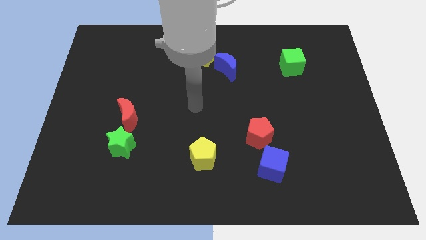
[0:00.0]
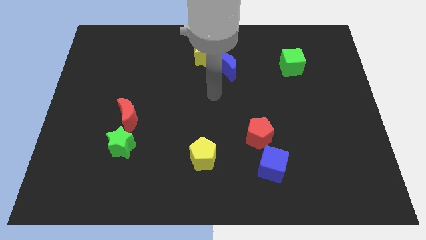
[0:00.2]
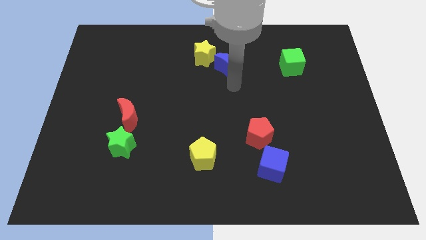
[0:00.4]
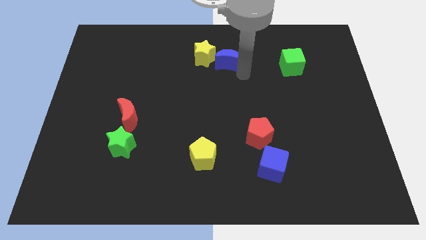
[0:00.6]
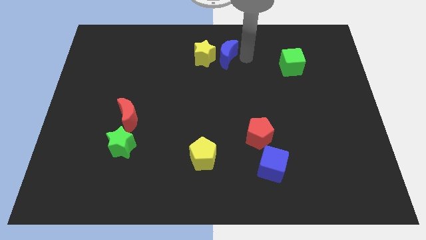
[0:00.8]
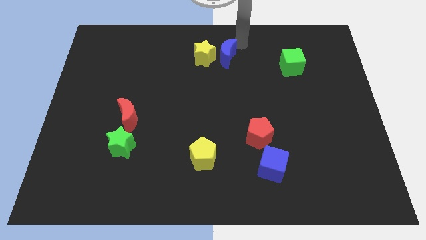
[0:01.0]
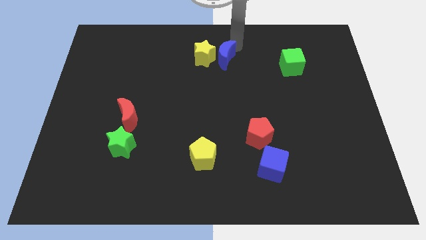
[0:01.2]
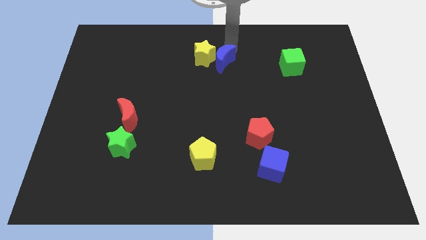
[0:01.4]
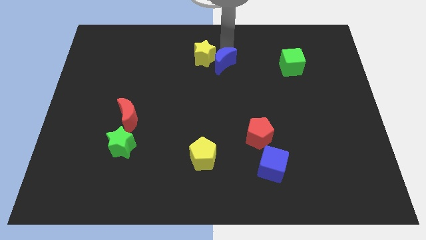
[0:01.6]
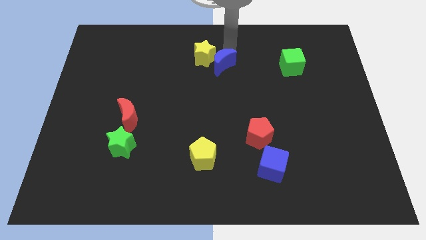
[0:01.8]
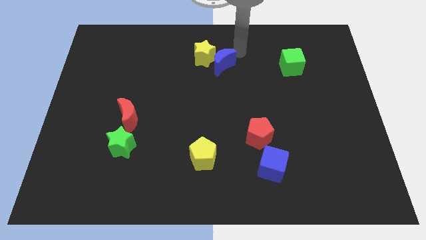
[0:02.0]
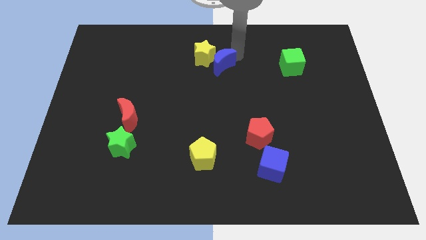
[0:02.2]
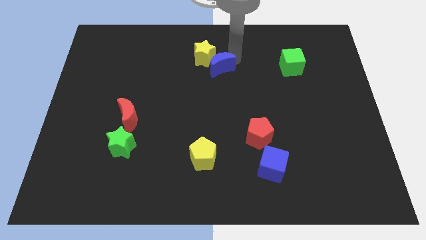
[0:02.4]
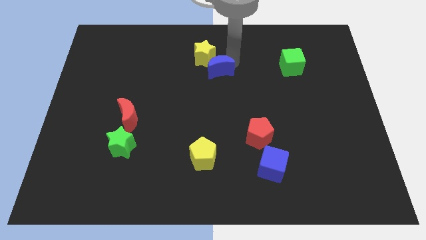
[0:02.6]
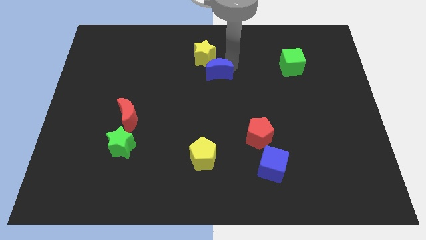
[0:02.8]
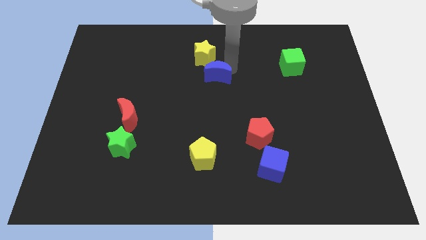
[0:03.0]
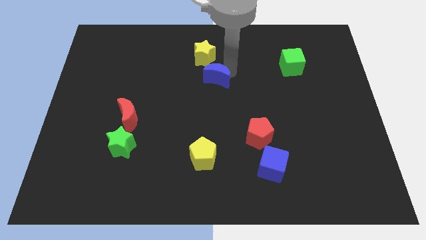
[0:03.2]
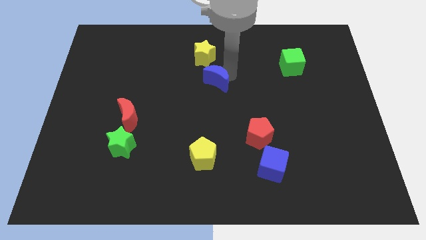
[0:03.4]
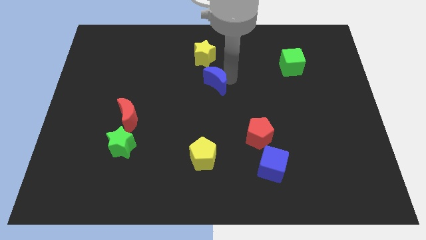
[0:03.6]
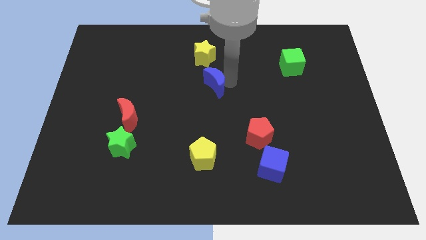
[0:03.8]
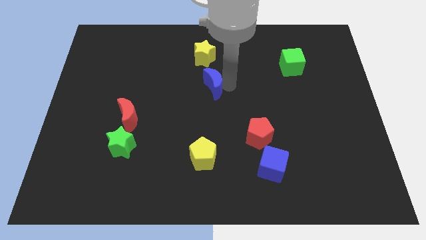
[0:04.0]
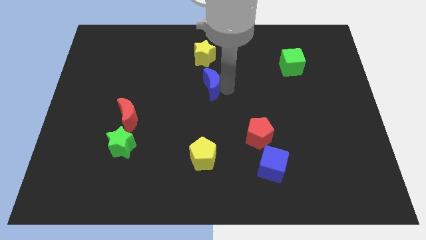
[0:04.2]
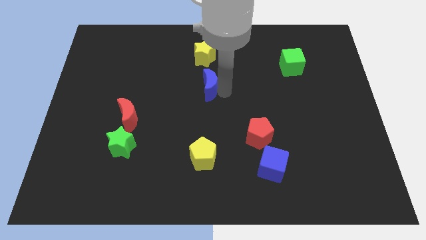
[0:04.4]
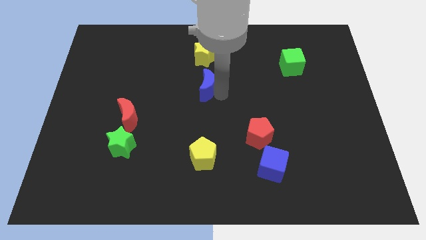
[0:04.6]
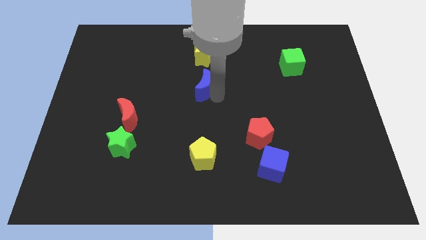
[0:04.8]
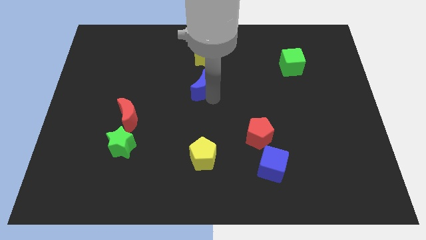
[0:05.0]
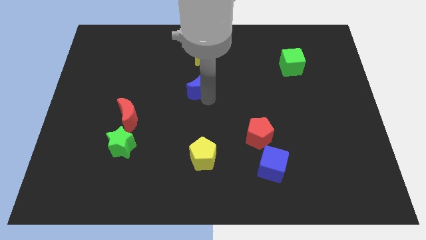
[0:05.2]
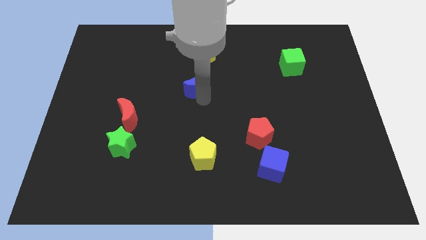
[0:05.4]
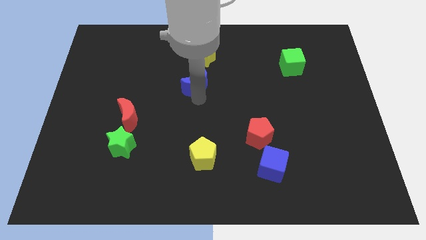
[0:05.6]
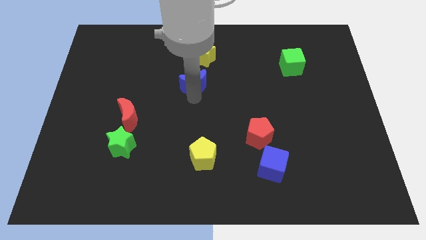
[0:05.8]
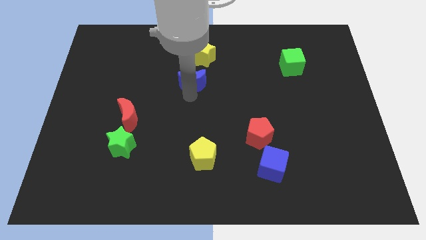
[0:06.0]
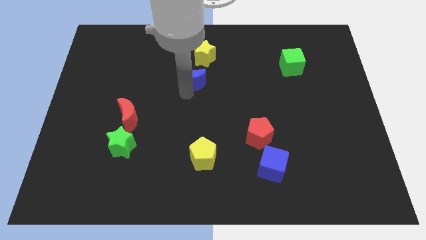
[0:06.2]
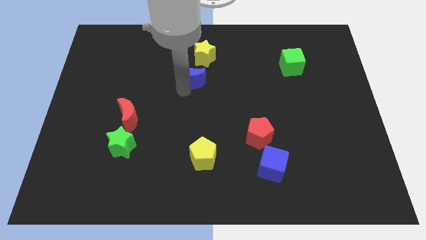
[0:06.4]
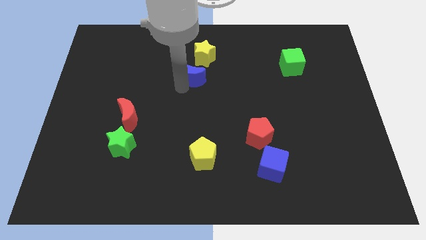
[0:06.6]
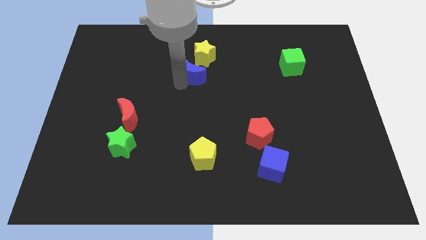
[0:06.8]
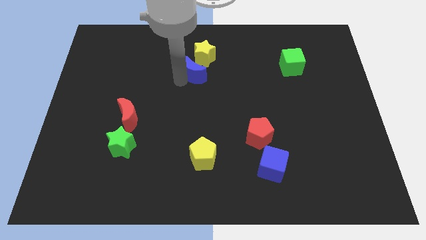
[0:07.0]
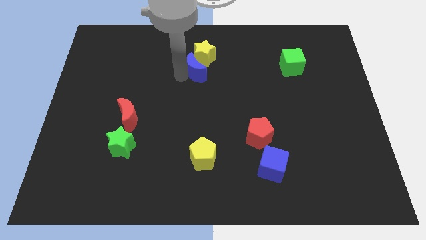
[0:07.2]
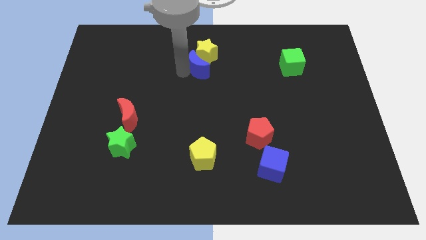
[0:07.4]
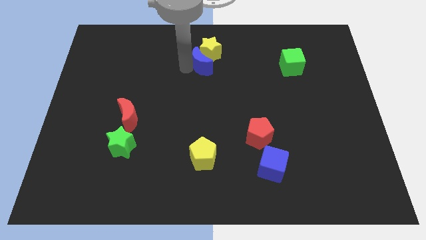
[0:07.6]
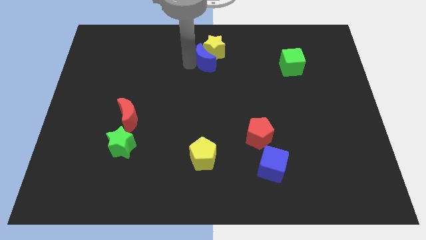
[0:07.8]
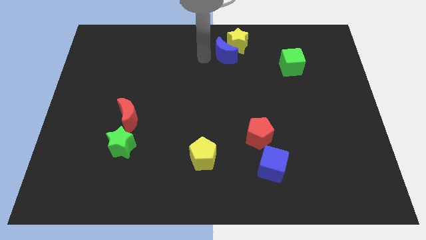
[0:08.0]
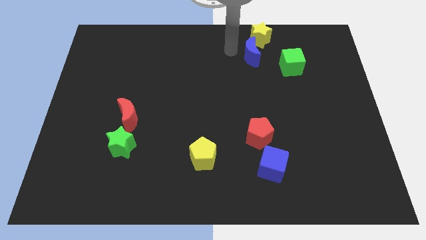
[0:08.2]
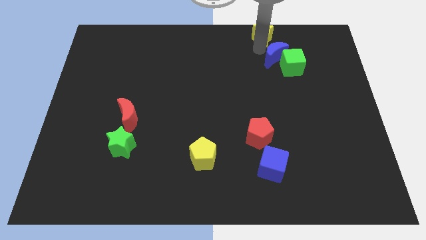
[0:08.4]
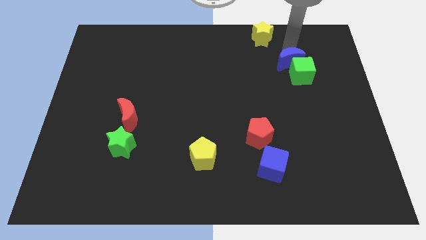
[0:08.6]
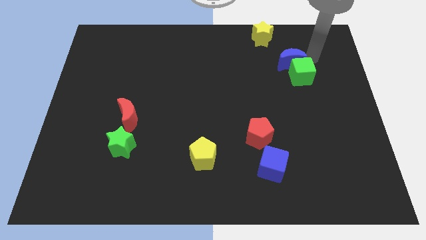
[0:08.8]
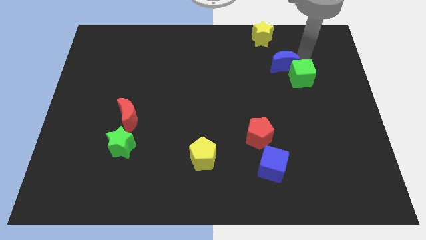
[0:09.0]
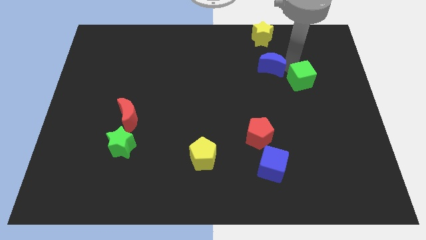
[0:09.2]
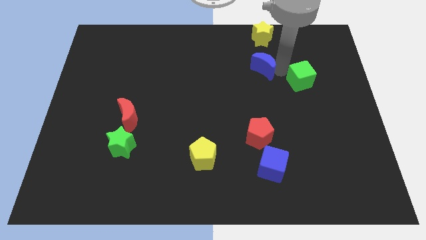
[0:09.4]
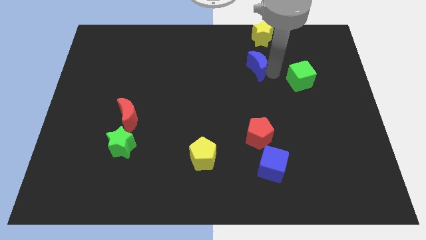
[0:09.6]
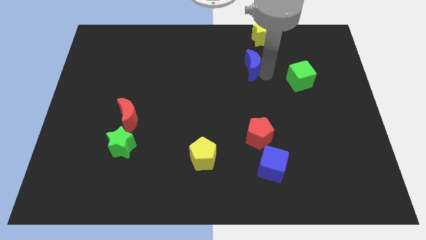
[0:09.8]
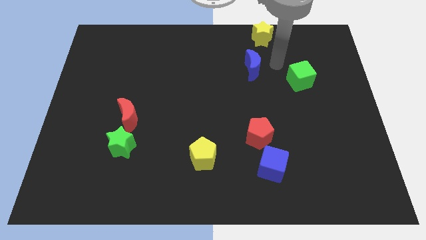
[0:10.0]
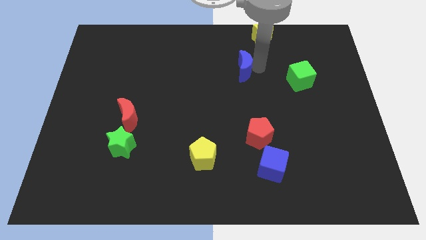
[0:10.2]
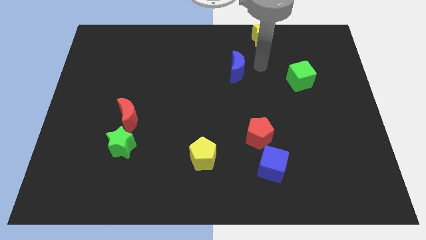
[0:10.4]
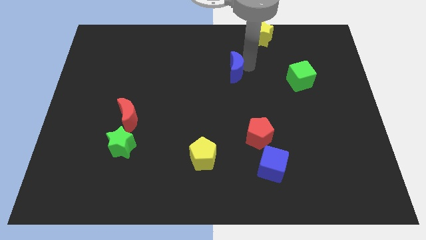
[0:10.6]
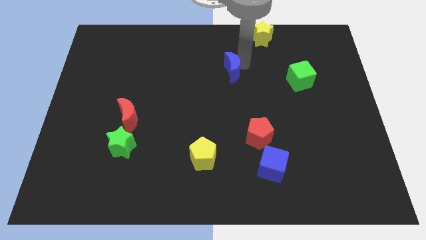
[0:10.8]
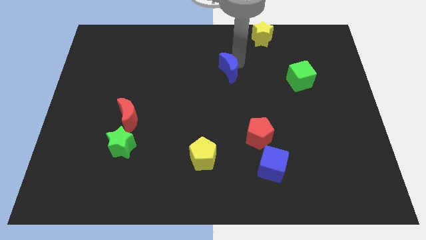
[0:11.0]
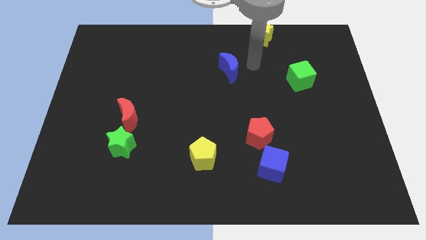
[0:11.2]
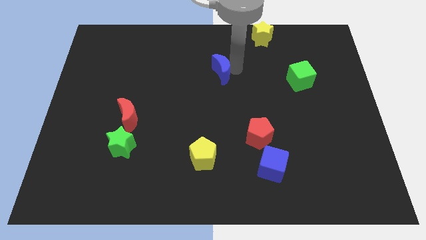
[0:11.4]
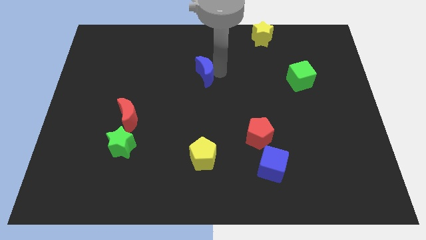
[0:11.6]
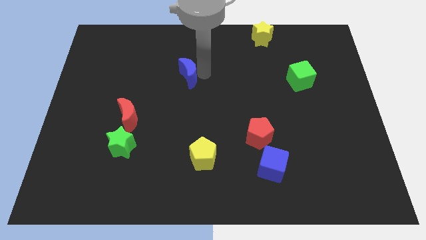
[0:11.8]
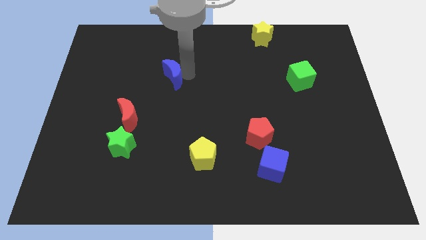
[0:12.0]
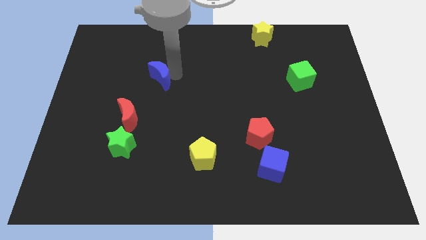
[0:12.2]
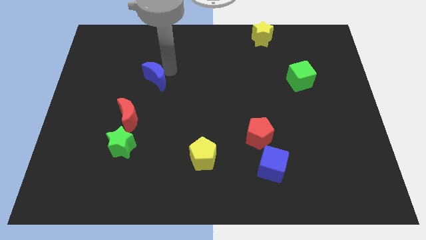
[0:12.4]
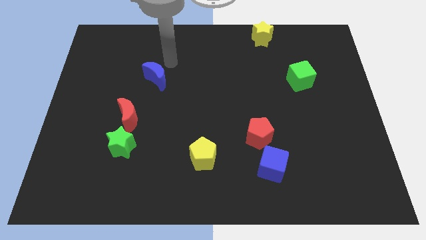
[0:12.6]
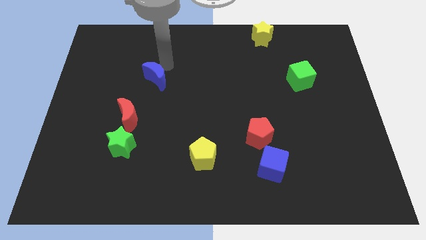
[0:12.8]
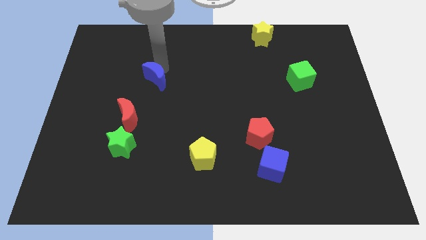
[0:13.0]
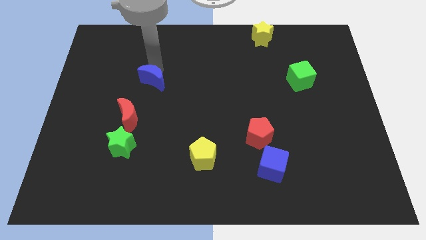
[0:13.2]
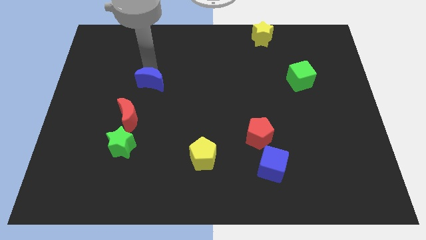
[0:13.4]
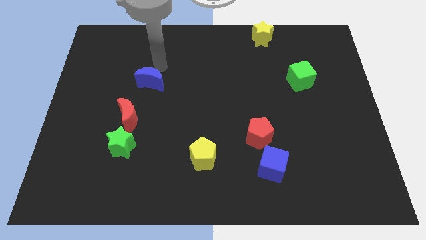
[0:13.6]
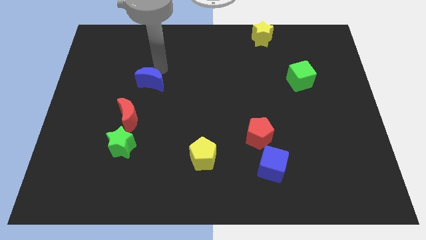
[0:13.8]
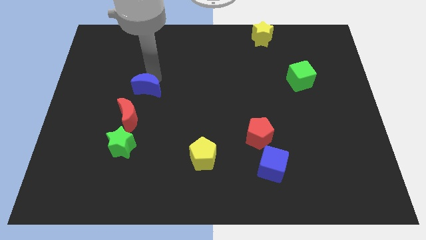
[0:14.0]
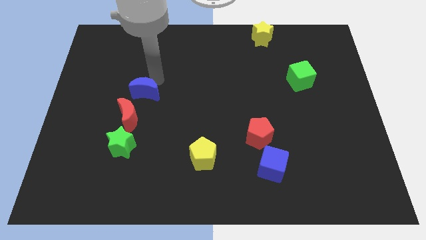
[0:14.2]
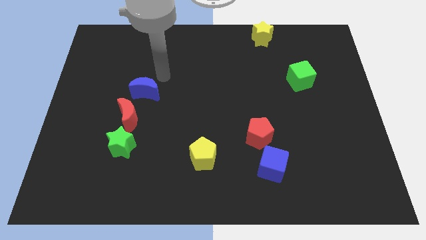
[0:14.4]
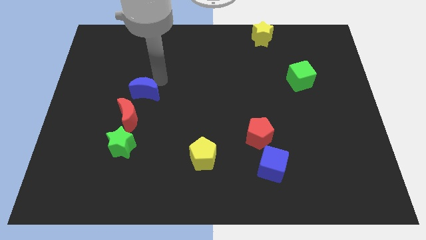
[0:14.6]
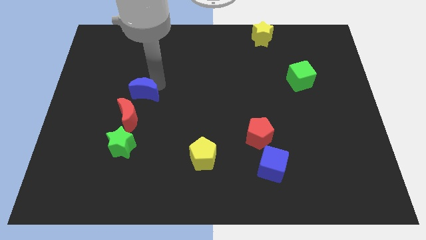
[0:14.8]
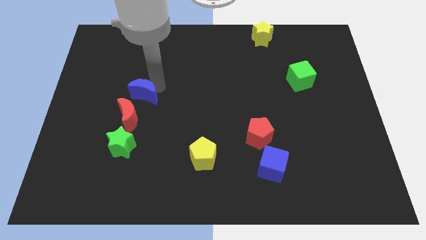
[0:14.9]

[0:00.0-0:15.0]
put the blue moon above the green star
